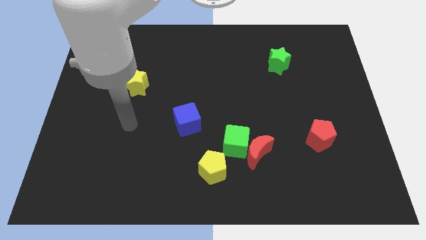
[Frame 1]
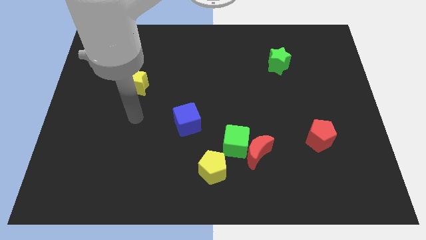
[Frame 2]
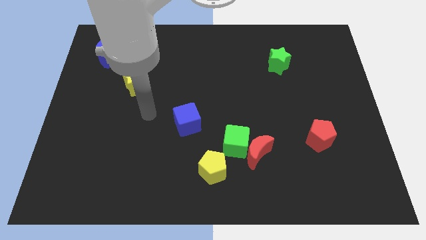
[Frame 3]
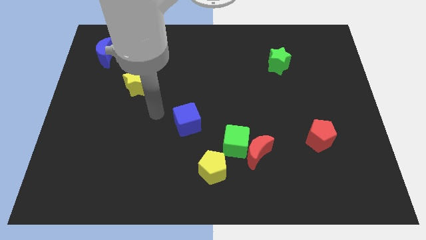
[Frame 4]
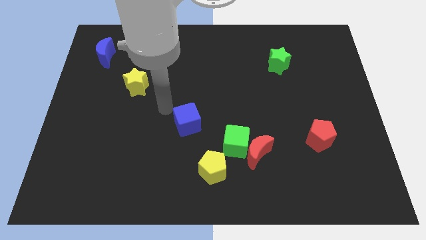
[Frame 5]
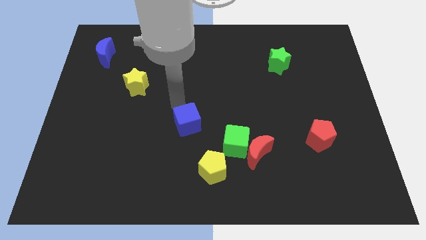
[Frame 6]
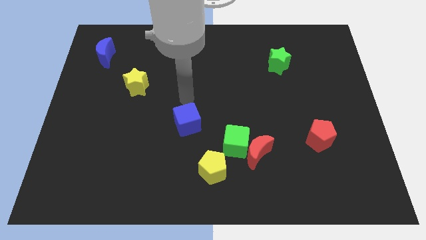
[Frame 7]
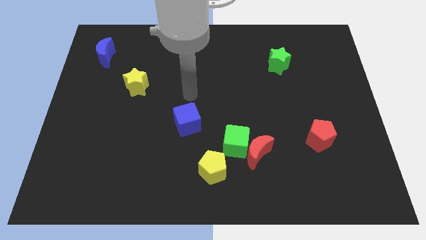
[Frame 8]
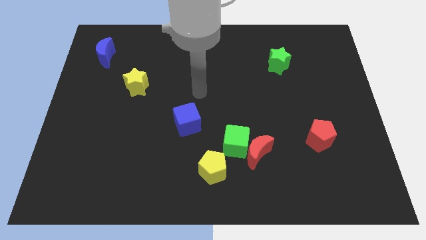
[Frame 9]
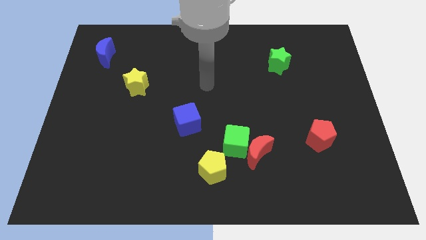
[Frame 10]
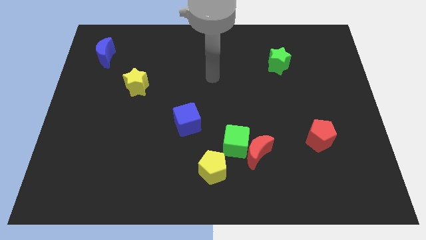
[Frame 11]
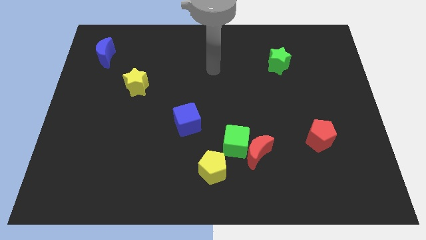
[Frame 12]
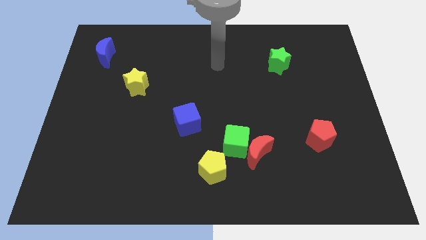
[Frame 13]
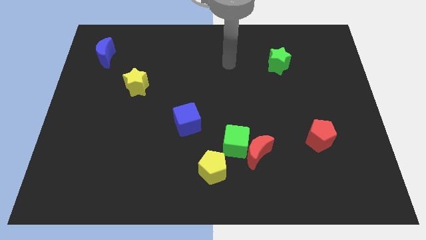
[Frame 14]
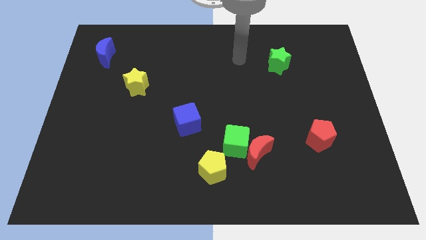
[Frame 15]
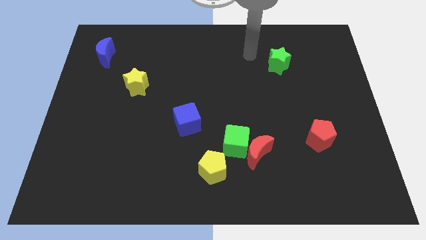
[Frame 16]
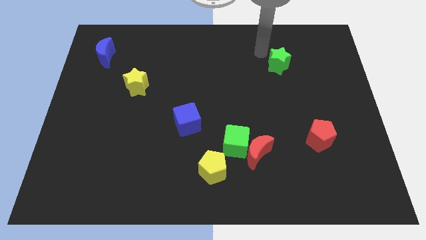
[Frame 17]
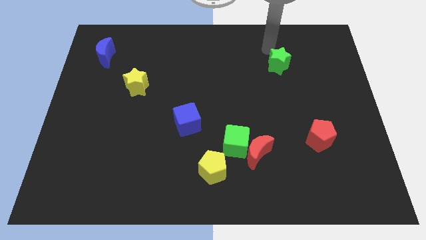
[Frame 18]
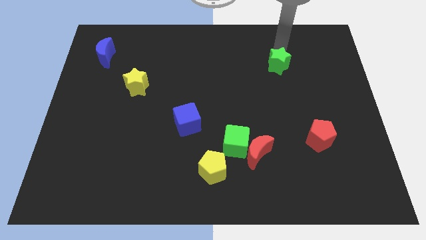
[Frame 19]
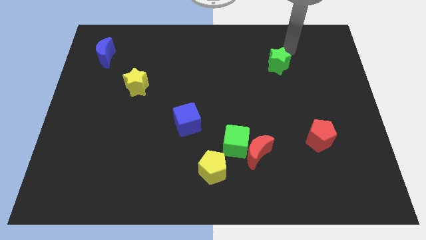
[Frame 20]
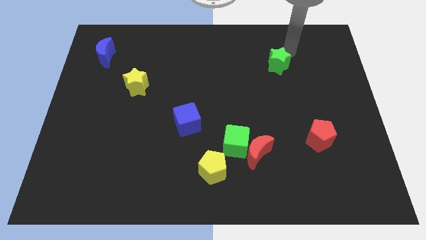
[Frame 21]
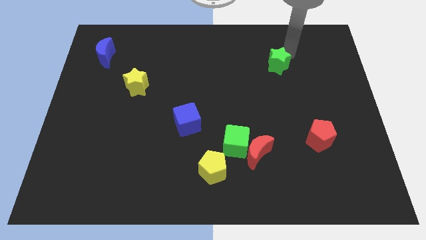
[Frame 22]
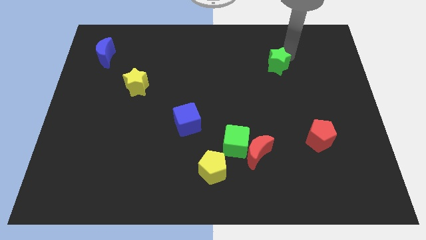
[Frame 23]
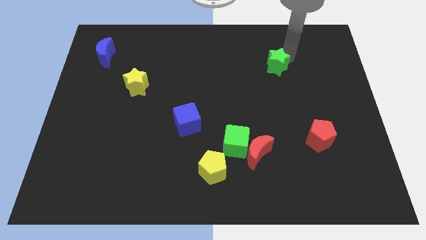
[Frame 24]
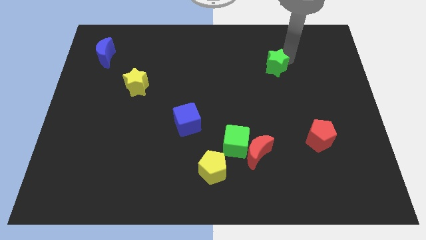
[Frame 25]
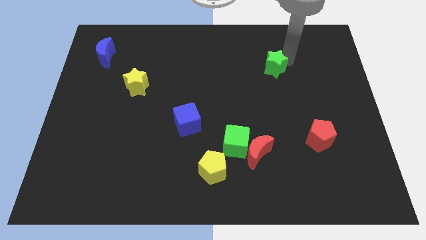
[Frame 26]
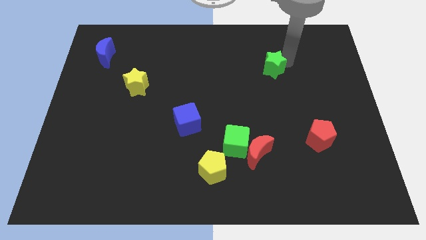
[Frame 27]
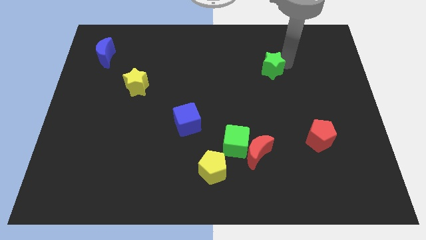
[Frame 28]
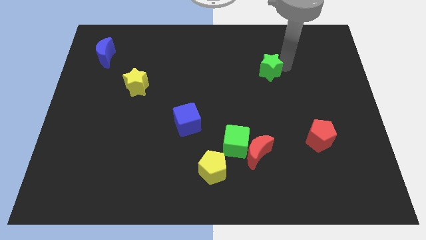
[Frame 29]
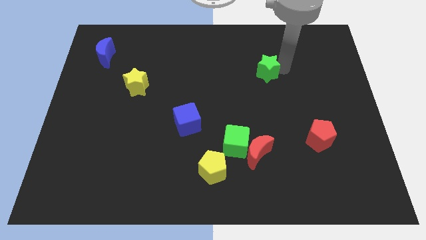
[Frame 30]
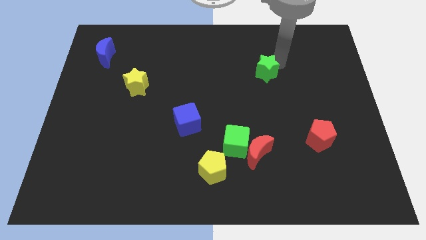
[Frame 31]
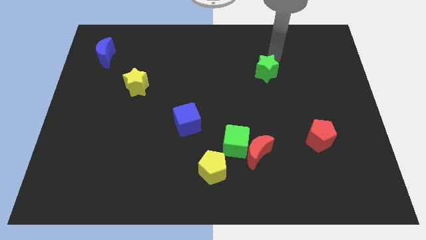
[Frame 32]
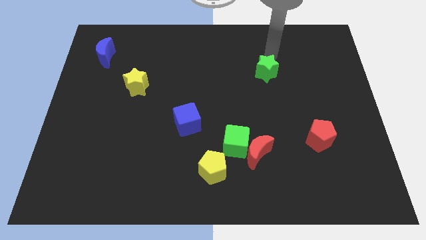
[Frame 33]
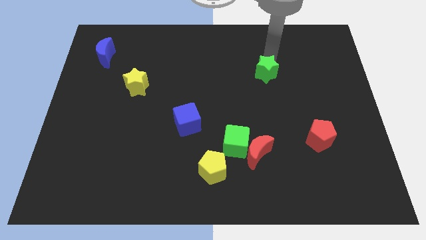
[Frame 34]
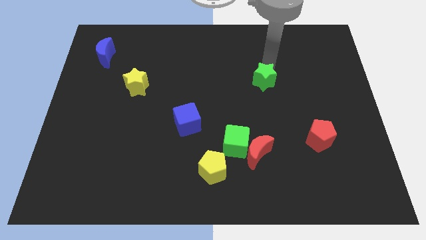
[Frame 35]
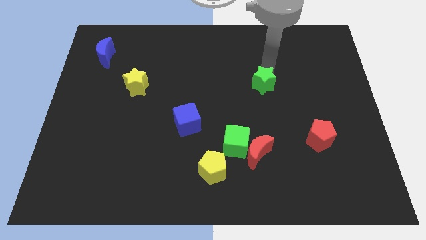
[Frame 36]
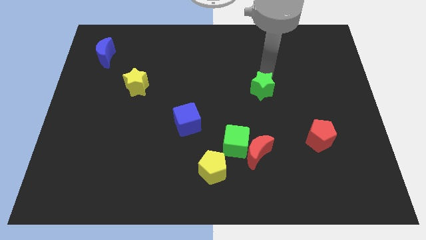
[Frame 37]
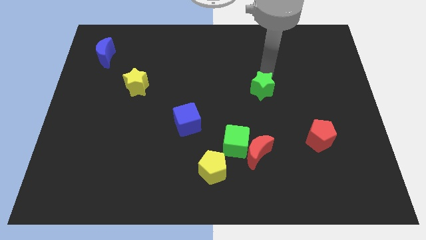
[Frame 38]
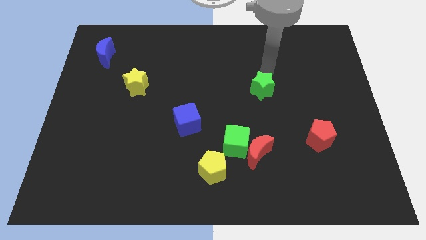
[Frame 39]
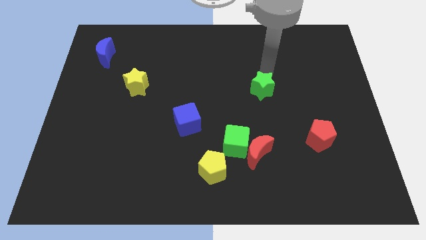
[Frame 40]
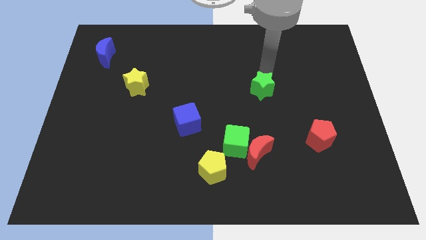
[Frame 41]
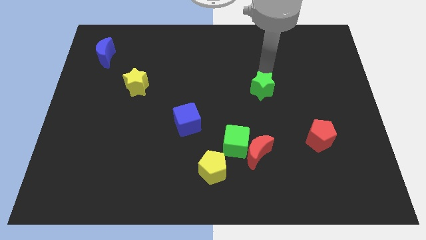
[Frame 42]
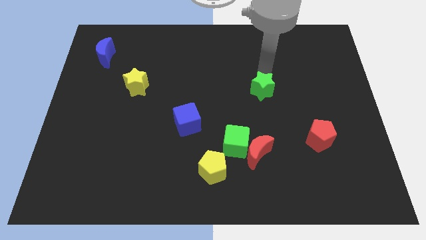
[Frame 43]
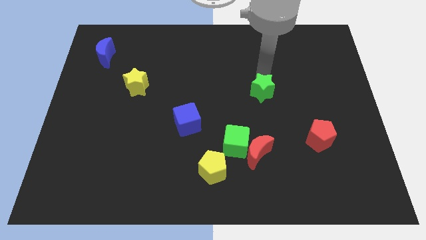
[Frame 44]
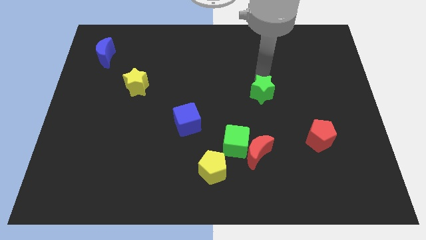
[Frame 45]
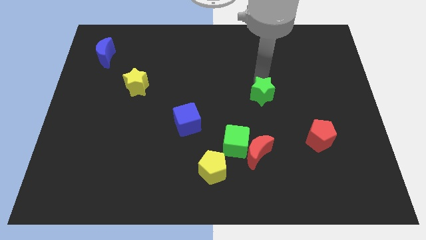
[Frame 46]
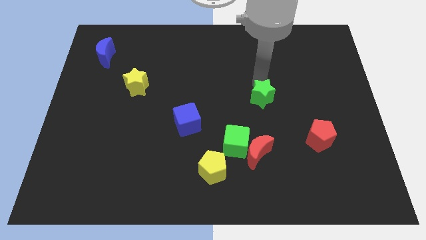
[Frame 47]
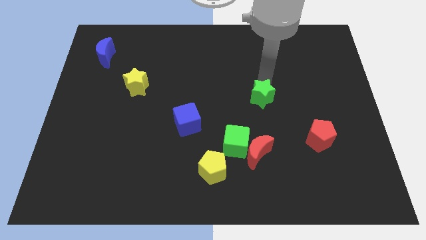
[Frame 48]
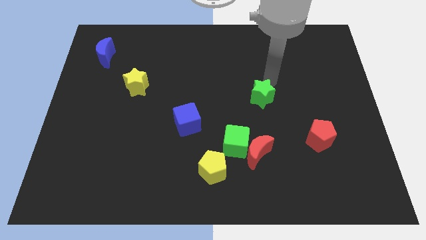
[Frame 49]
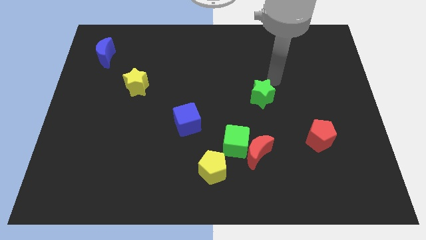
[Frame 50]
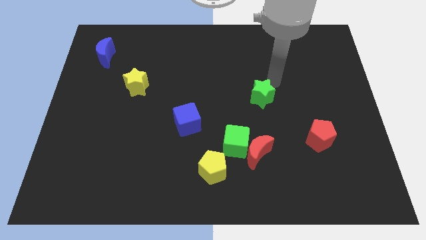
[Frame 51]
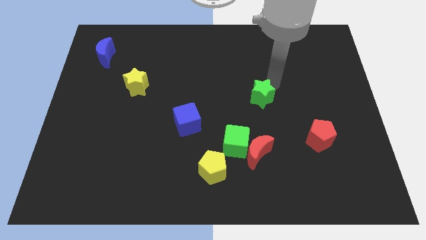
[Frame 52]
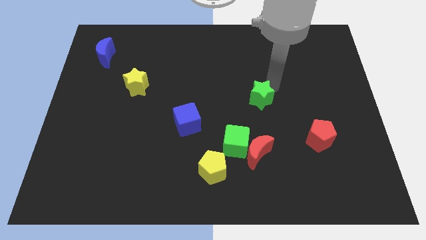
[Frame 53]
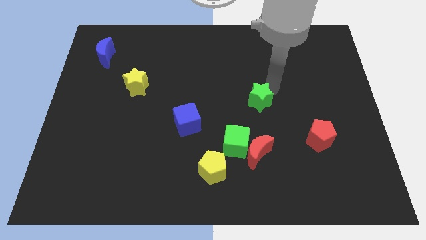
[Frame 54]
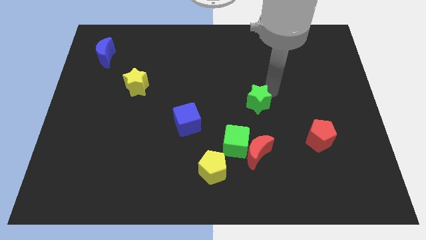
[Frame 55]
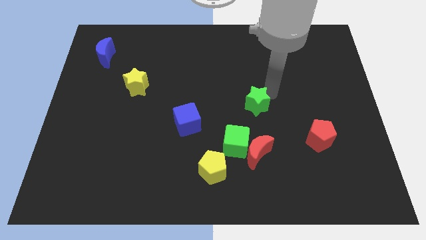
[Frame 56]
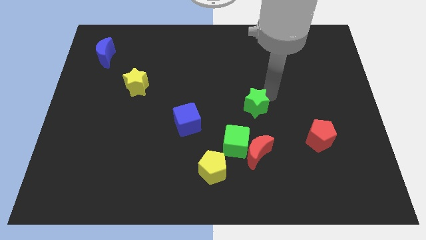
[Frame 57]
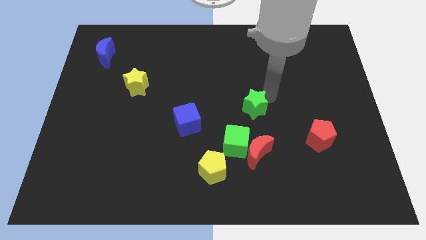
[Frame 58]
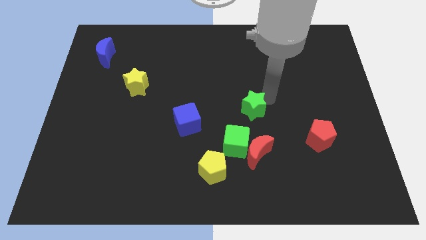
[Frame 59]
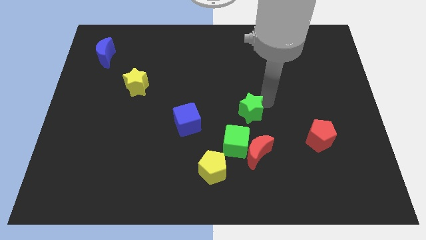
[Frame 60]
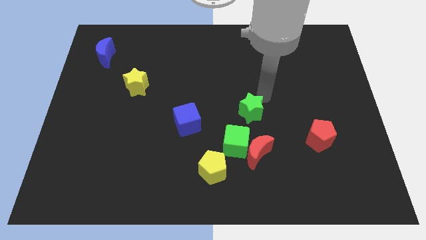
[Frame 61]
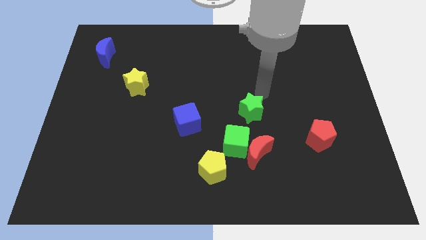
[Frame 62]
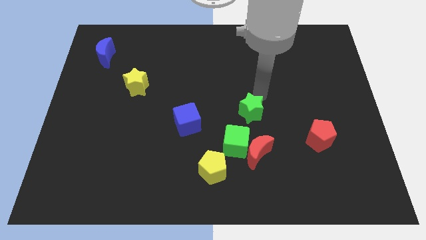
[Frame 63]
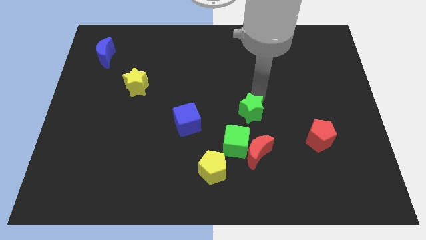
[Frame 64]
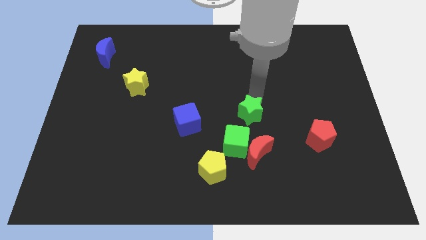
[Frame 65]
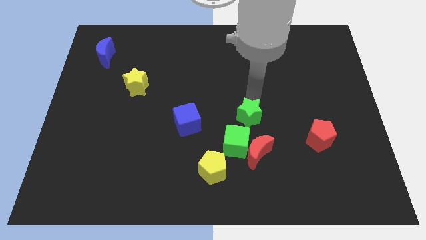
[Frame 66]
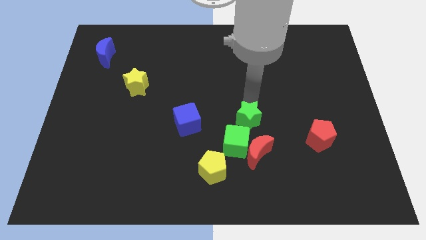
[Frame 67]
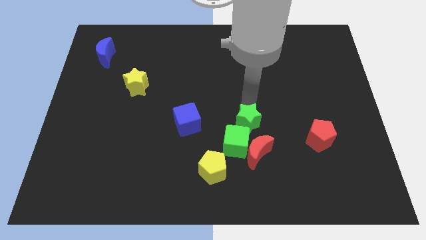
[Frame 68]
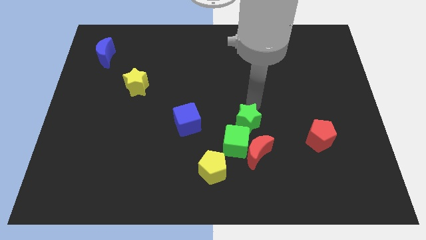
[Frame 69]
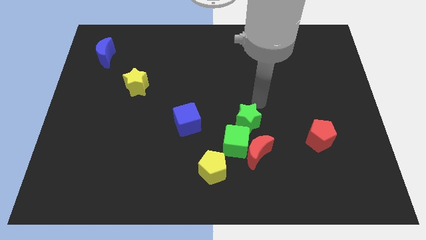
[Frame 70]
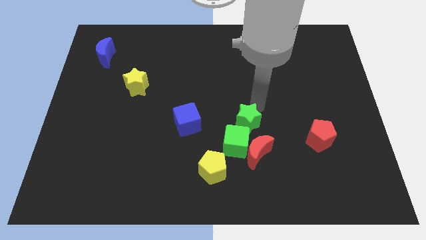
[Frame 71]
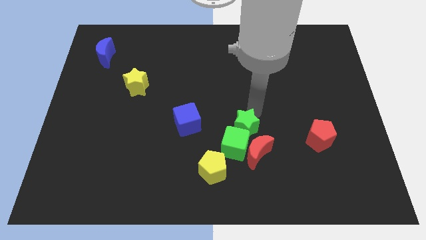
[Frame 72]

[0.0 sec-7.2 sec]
move the green star towards the green cube

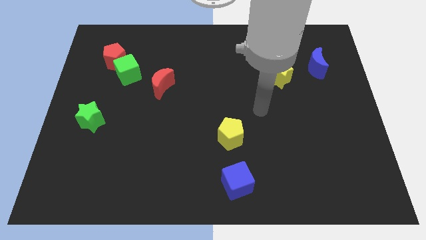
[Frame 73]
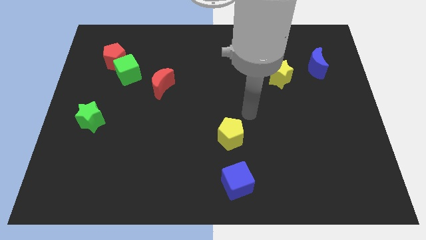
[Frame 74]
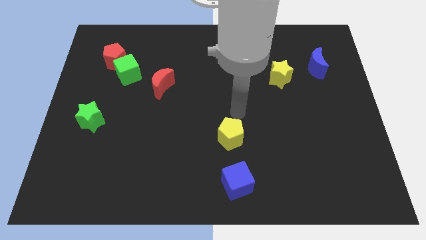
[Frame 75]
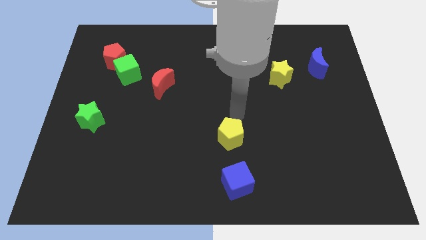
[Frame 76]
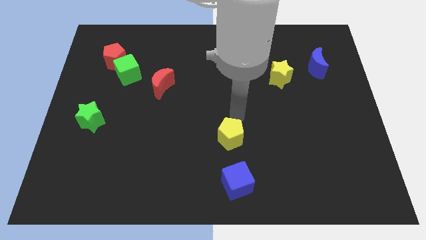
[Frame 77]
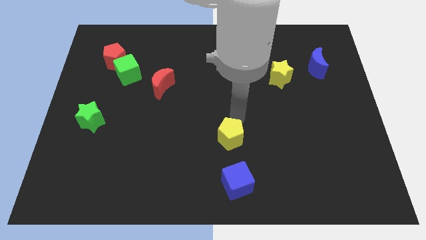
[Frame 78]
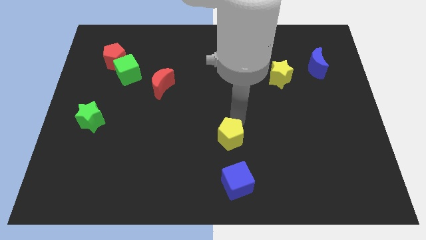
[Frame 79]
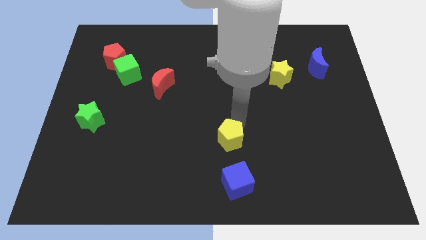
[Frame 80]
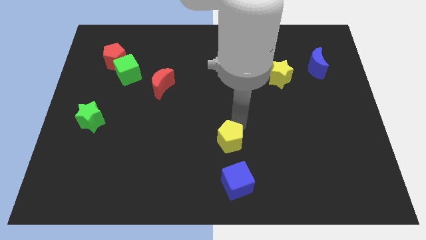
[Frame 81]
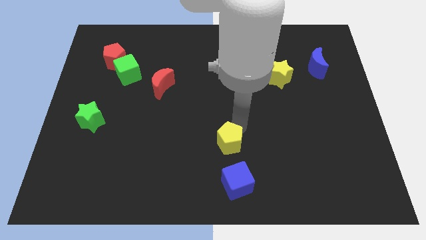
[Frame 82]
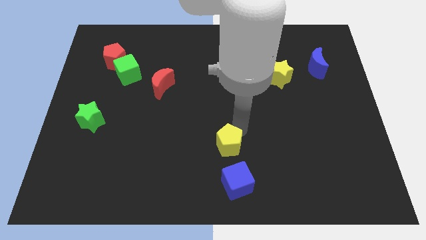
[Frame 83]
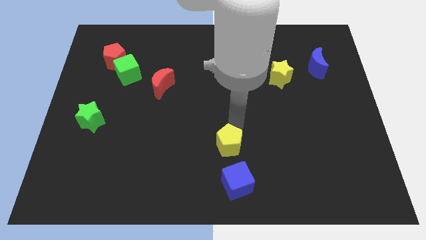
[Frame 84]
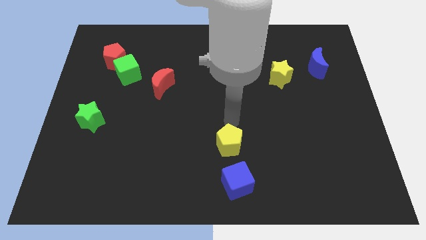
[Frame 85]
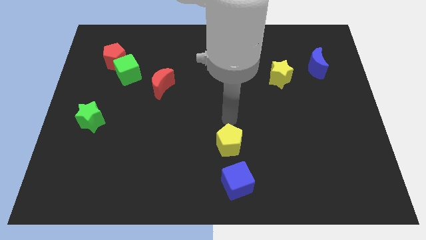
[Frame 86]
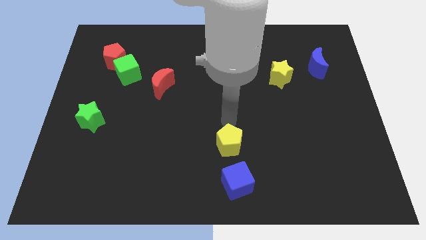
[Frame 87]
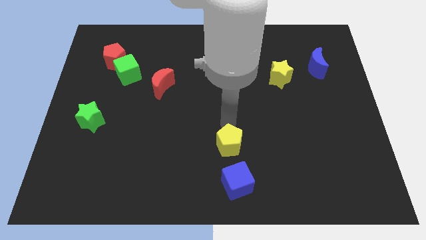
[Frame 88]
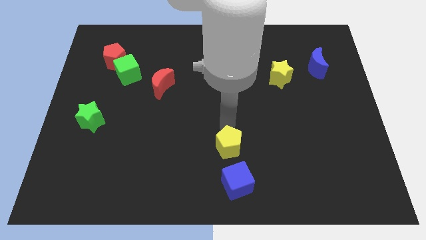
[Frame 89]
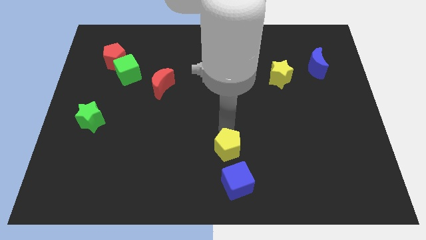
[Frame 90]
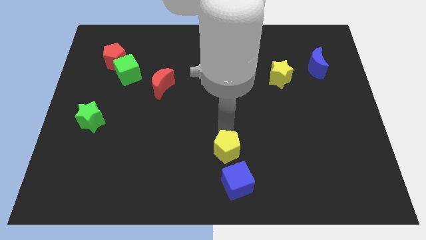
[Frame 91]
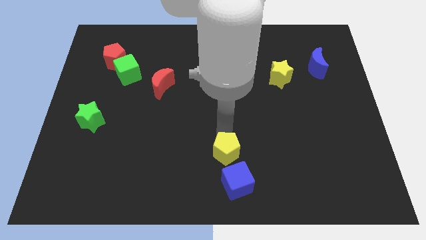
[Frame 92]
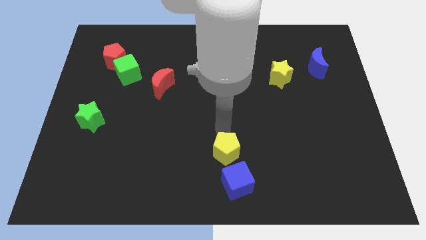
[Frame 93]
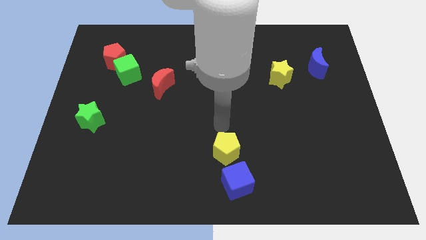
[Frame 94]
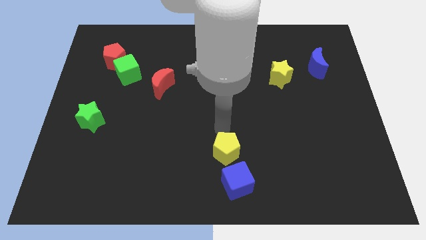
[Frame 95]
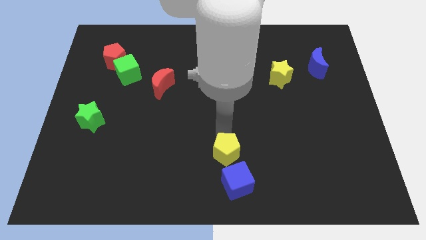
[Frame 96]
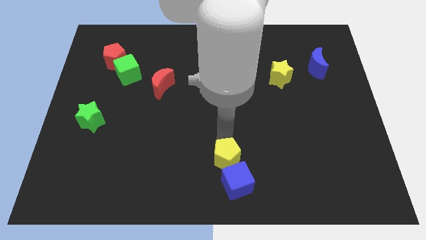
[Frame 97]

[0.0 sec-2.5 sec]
move the yellow pentagon next to the blue cube
